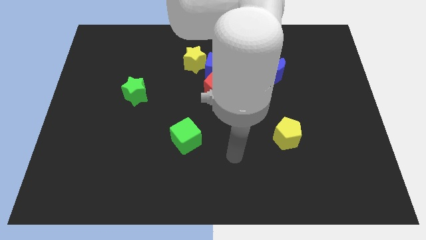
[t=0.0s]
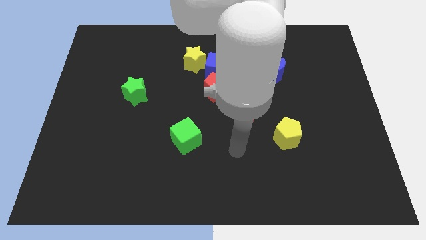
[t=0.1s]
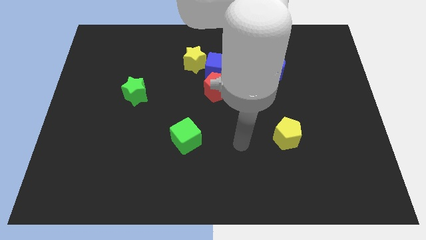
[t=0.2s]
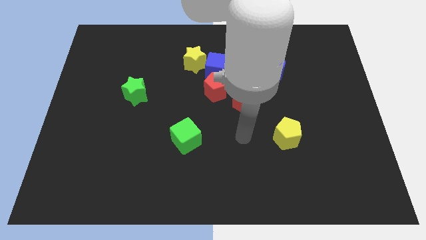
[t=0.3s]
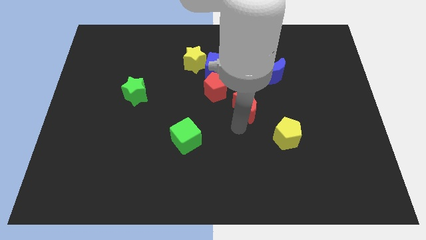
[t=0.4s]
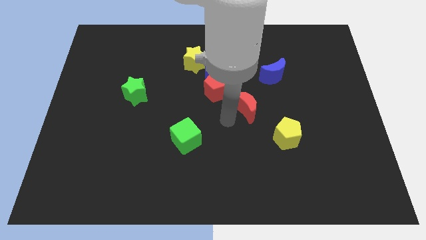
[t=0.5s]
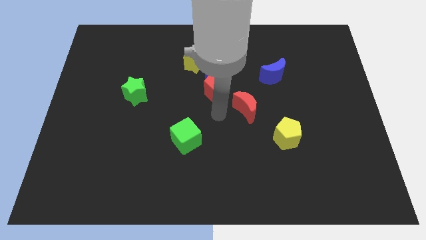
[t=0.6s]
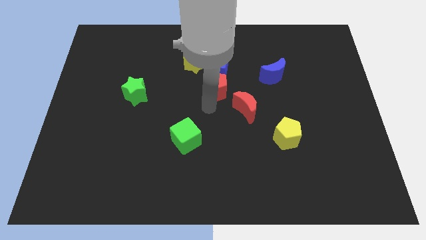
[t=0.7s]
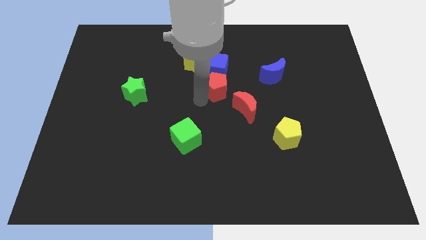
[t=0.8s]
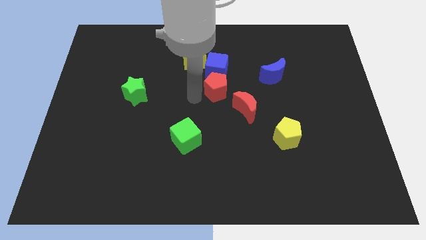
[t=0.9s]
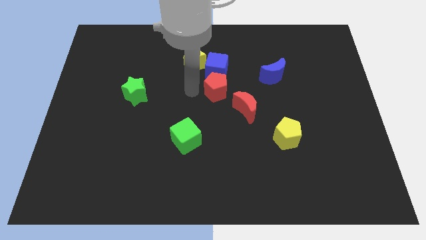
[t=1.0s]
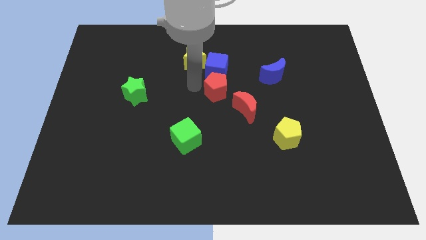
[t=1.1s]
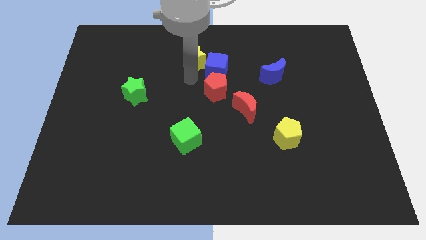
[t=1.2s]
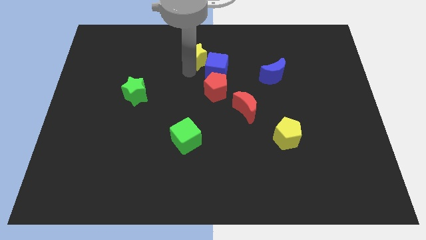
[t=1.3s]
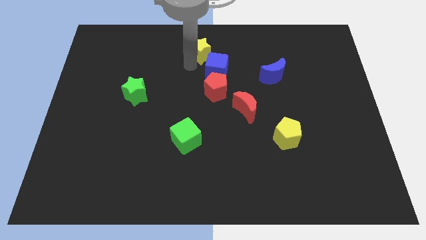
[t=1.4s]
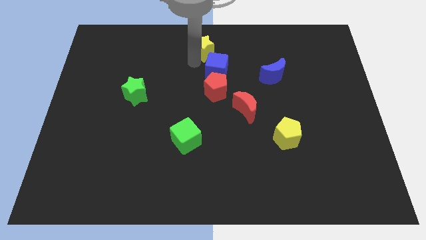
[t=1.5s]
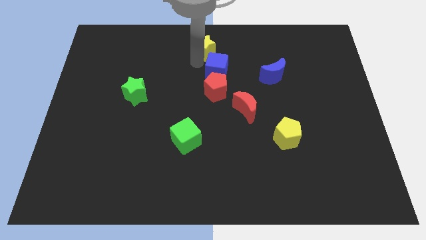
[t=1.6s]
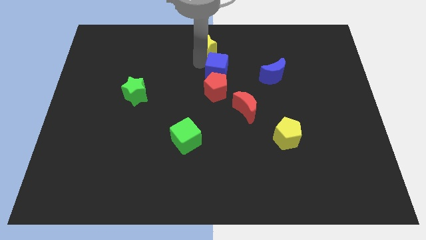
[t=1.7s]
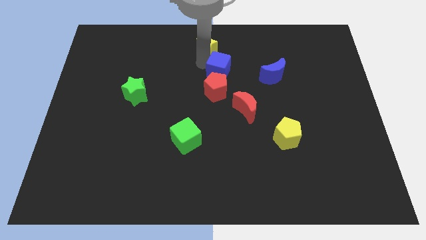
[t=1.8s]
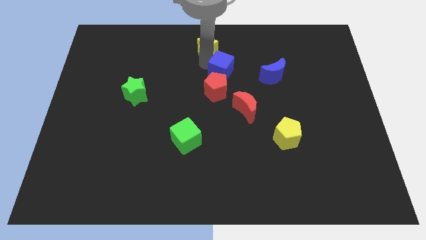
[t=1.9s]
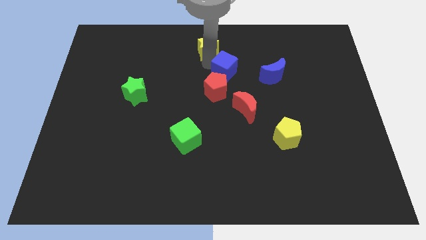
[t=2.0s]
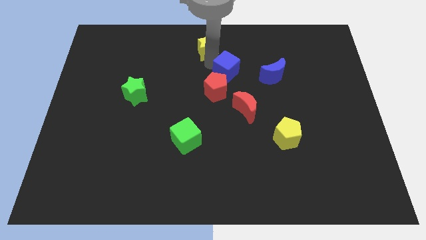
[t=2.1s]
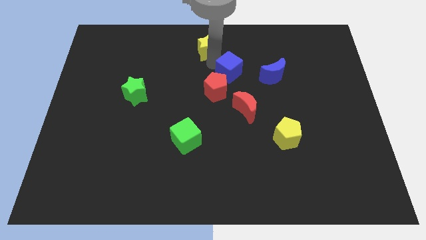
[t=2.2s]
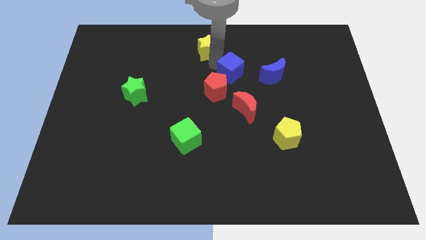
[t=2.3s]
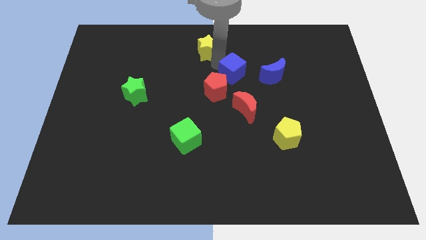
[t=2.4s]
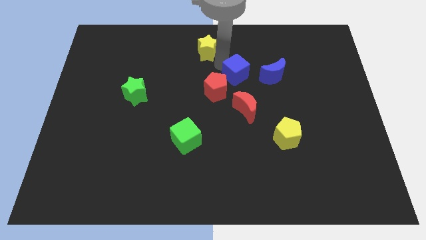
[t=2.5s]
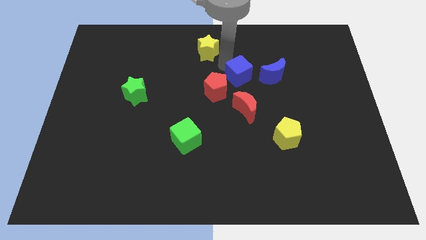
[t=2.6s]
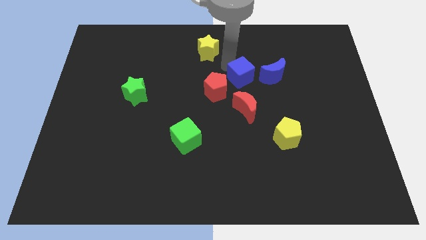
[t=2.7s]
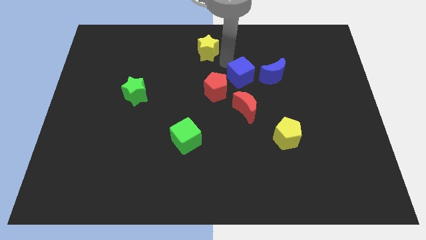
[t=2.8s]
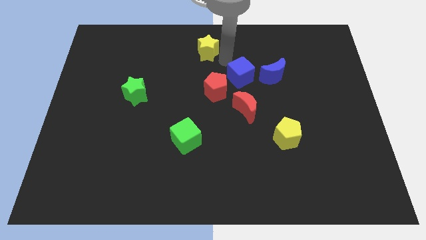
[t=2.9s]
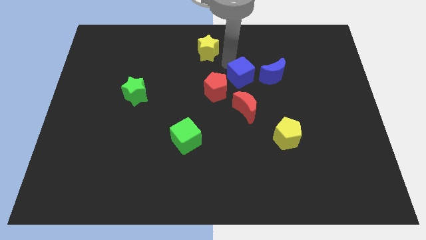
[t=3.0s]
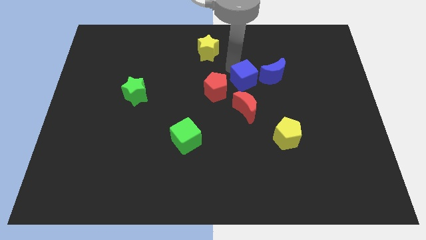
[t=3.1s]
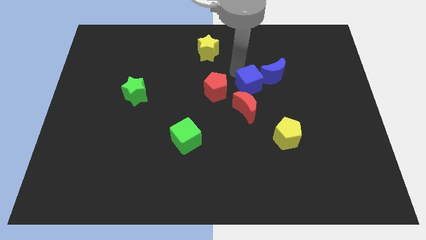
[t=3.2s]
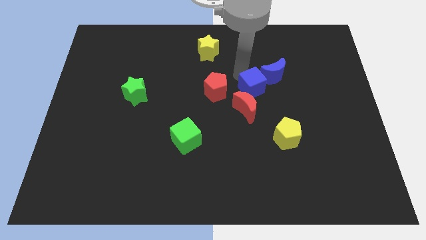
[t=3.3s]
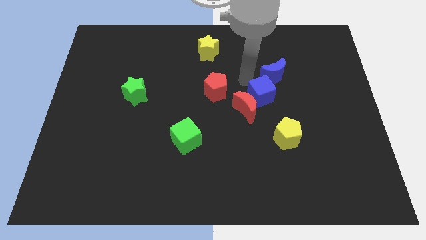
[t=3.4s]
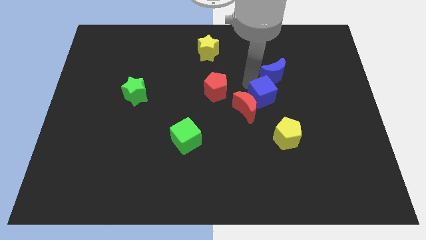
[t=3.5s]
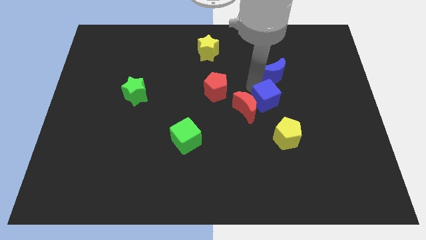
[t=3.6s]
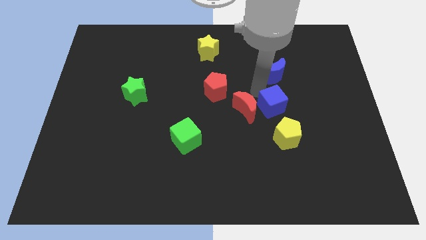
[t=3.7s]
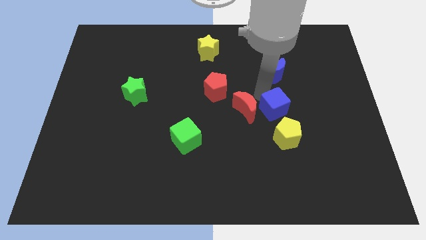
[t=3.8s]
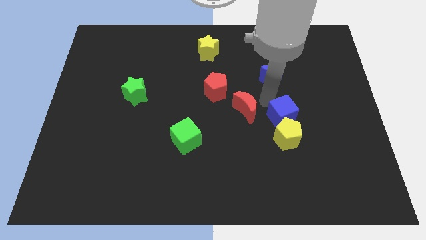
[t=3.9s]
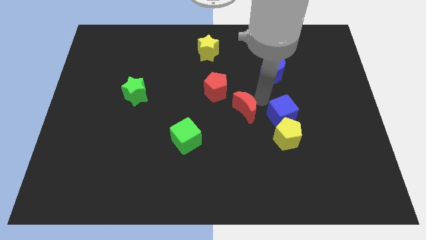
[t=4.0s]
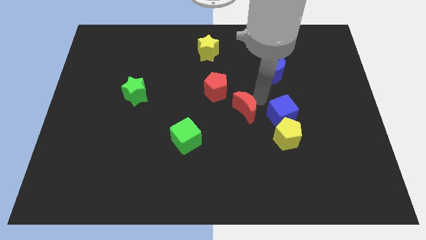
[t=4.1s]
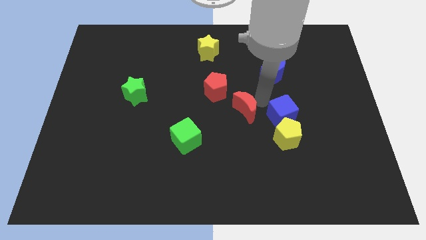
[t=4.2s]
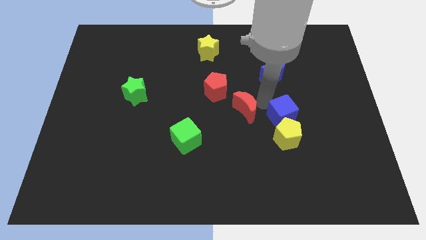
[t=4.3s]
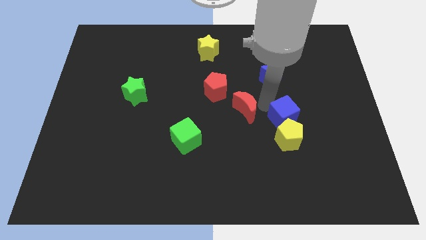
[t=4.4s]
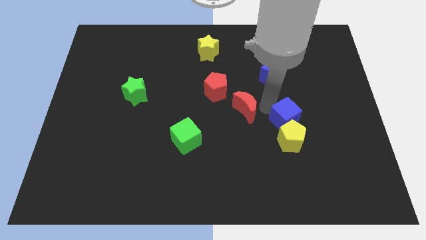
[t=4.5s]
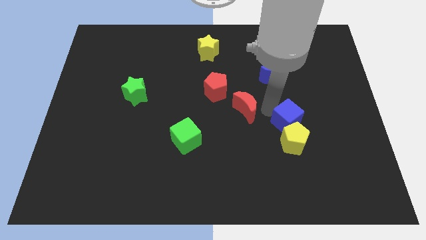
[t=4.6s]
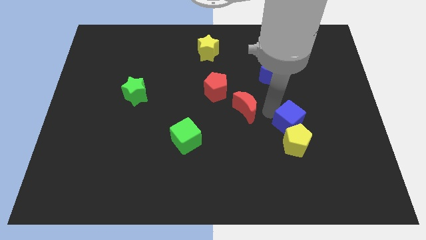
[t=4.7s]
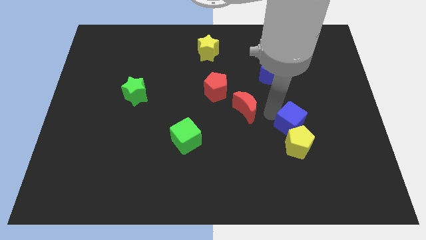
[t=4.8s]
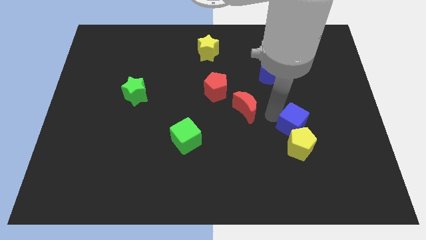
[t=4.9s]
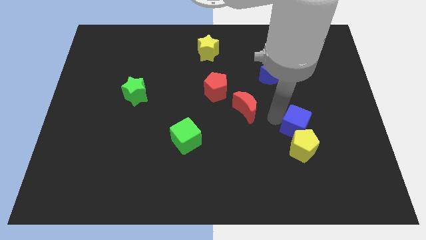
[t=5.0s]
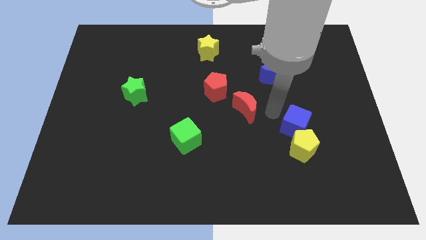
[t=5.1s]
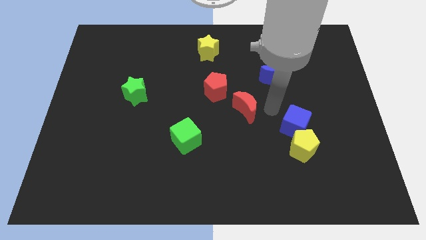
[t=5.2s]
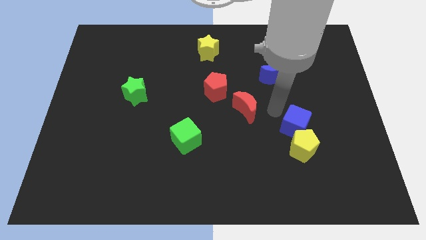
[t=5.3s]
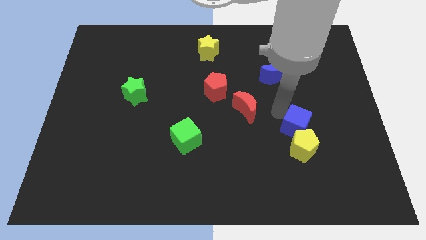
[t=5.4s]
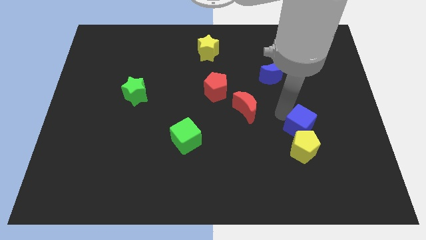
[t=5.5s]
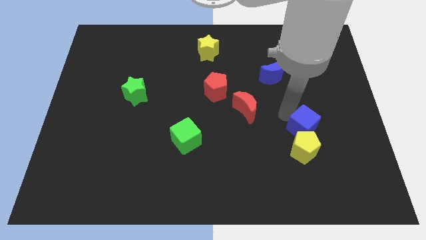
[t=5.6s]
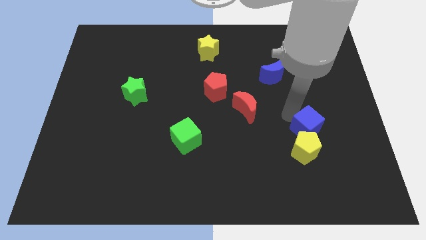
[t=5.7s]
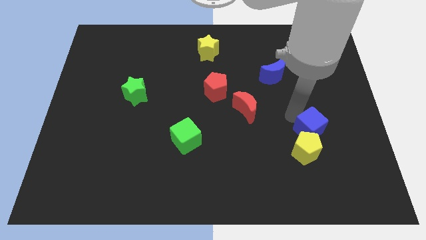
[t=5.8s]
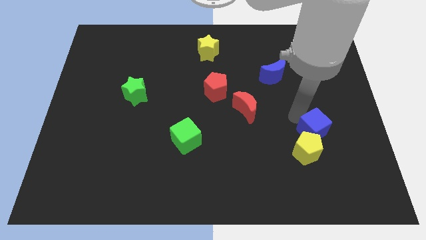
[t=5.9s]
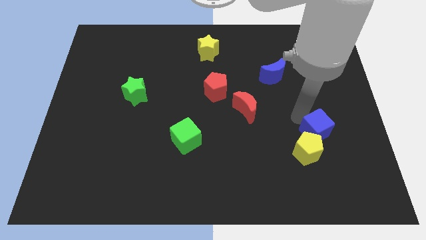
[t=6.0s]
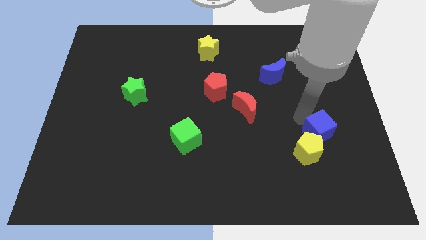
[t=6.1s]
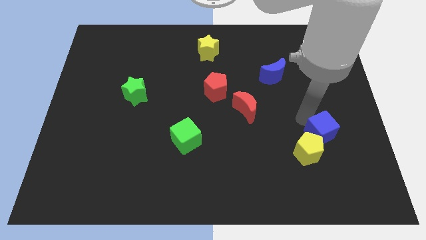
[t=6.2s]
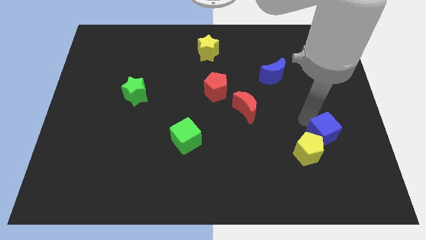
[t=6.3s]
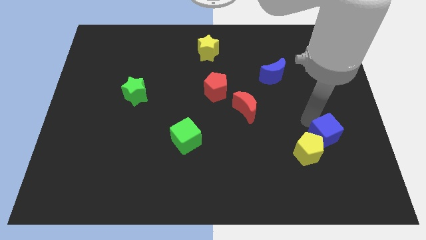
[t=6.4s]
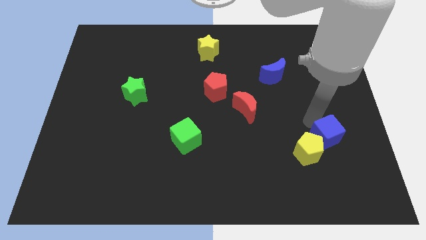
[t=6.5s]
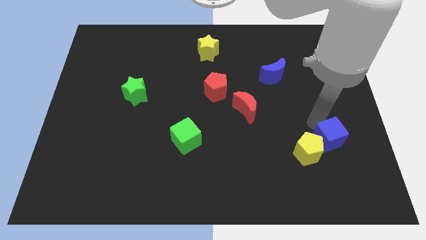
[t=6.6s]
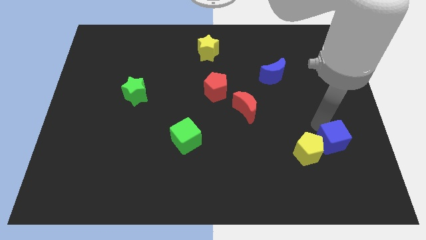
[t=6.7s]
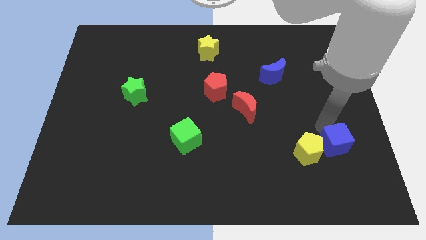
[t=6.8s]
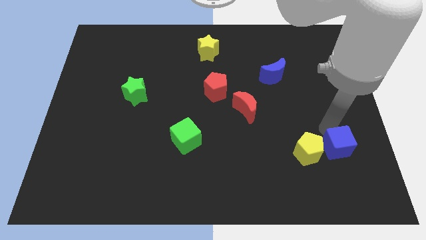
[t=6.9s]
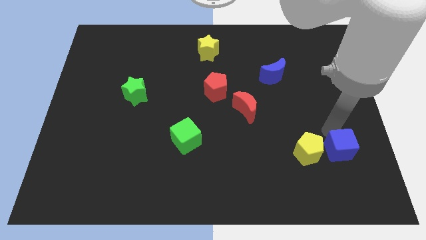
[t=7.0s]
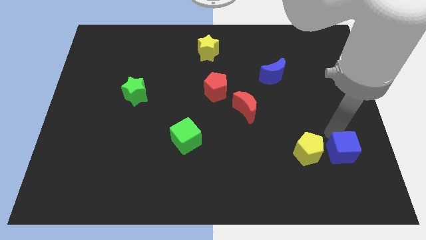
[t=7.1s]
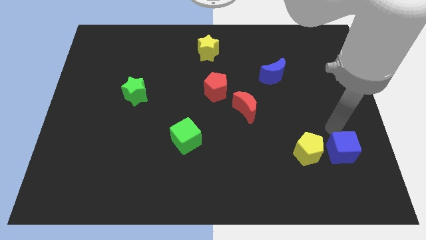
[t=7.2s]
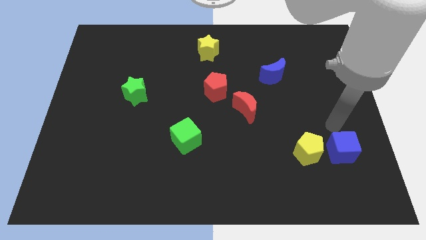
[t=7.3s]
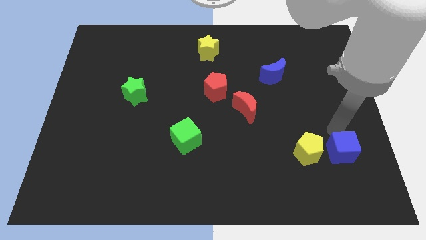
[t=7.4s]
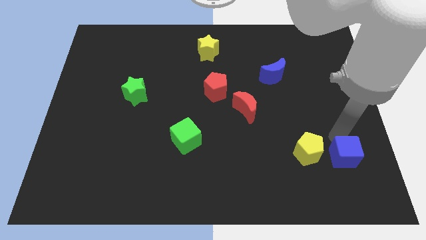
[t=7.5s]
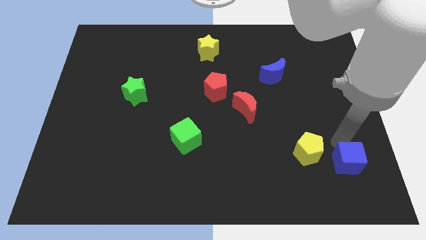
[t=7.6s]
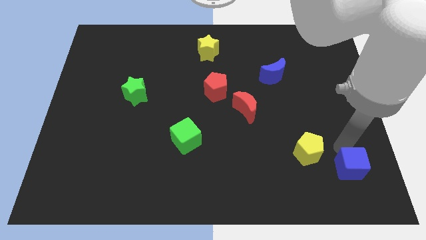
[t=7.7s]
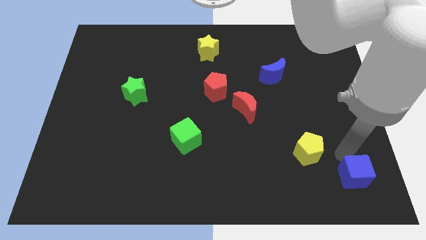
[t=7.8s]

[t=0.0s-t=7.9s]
put the blue cube to the bottom right corner
